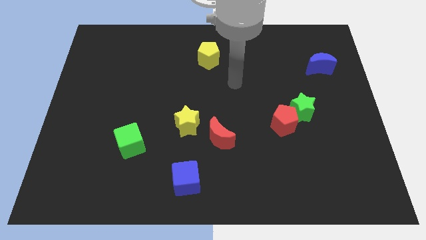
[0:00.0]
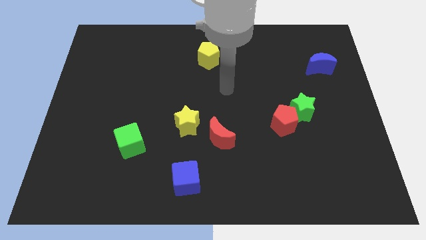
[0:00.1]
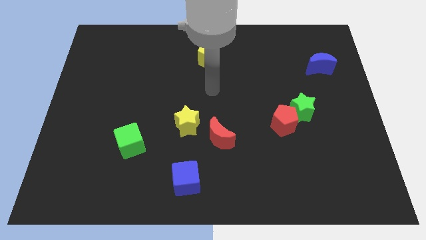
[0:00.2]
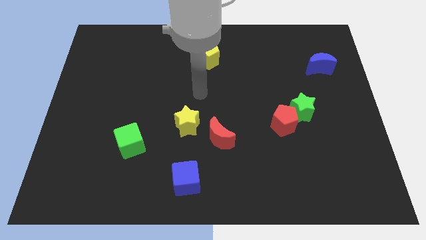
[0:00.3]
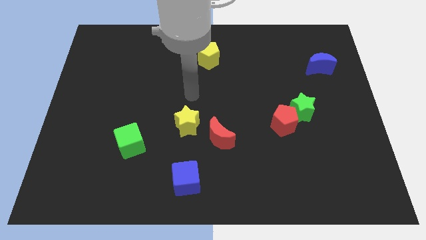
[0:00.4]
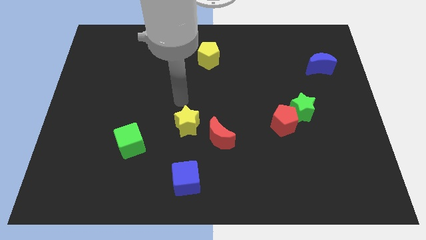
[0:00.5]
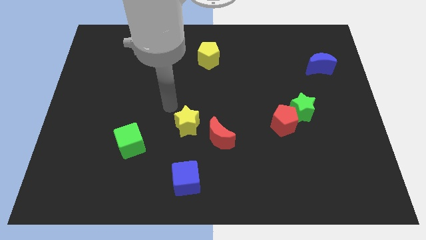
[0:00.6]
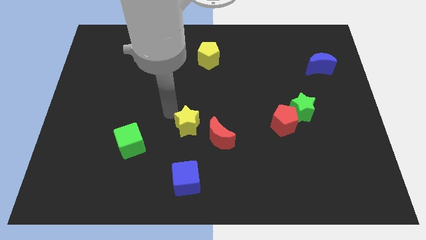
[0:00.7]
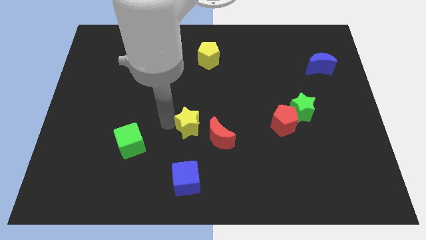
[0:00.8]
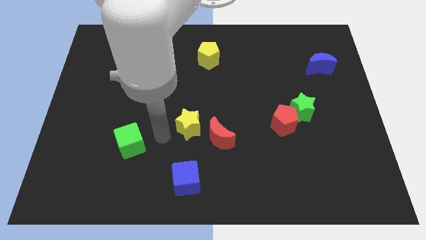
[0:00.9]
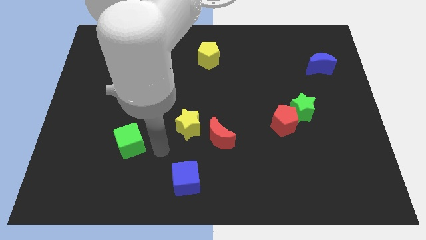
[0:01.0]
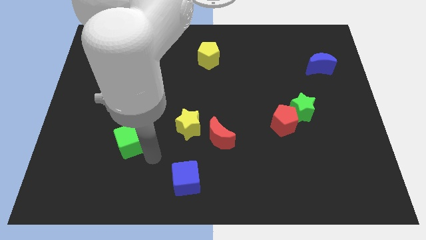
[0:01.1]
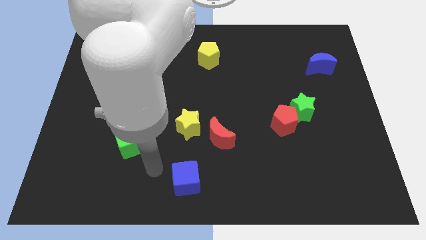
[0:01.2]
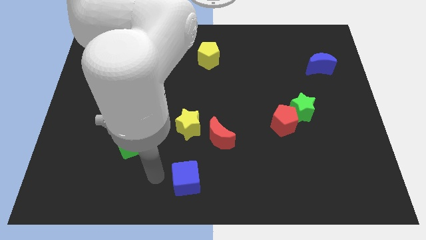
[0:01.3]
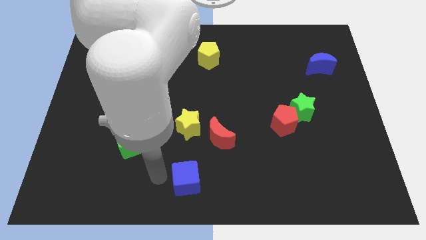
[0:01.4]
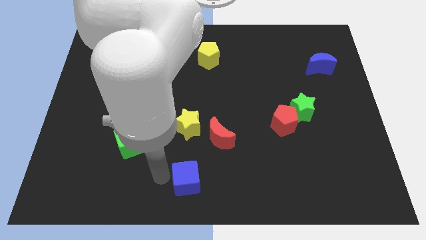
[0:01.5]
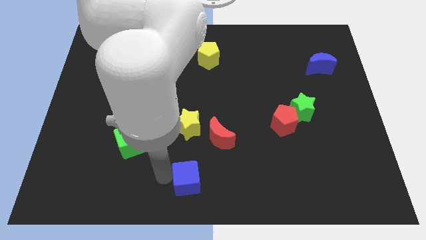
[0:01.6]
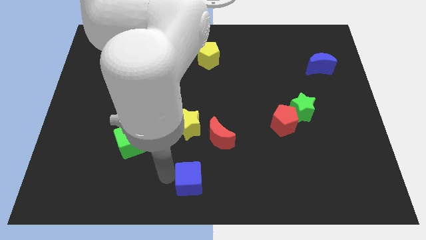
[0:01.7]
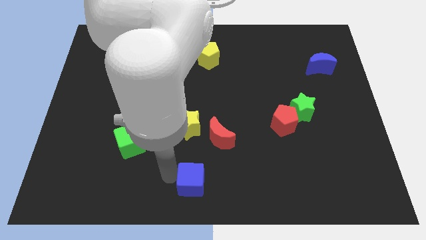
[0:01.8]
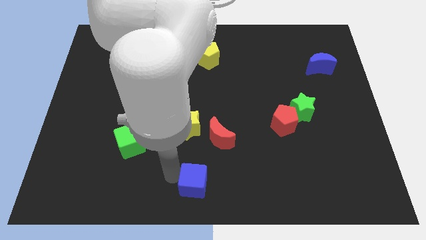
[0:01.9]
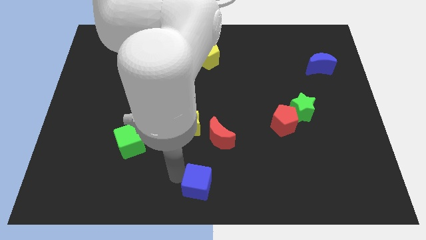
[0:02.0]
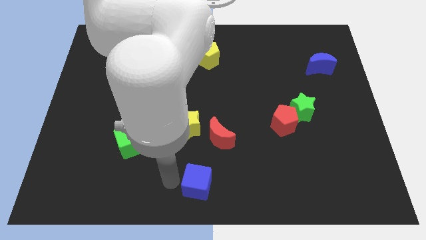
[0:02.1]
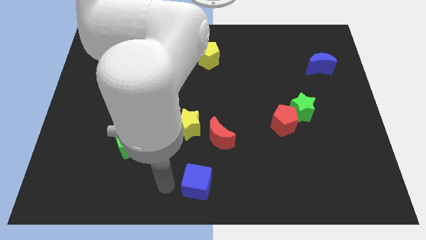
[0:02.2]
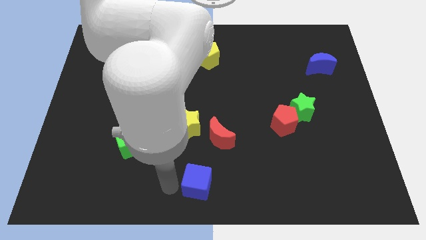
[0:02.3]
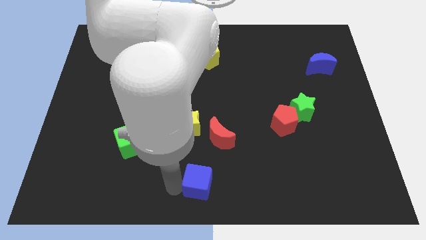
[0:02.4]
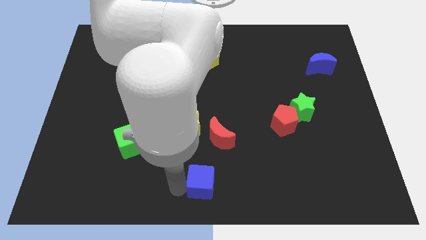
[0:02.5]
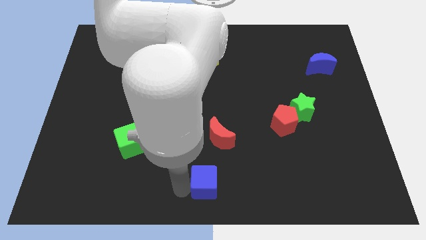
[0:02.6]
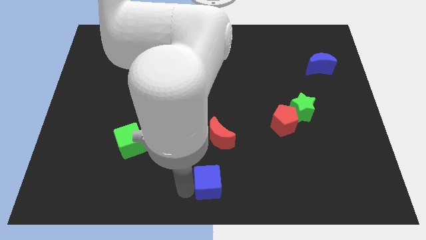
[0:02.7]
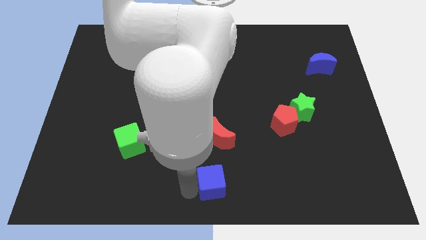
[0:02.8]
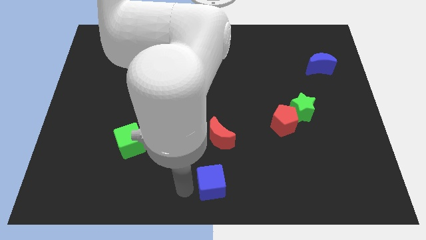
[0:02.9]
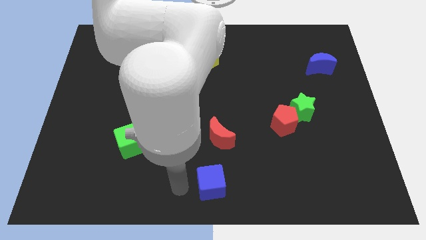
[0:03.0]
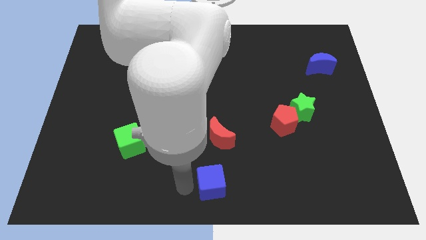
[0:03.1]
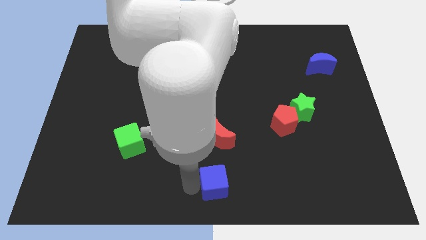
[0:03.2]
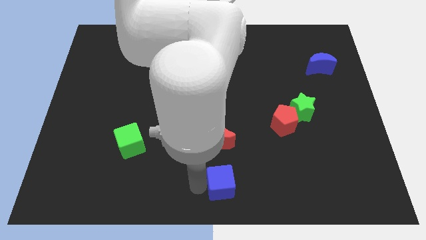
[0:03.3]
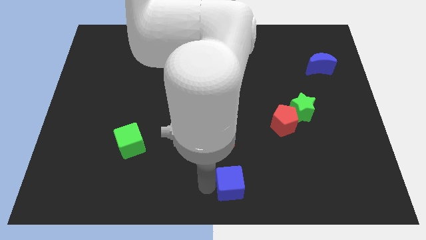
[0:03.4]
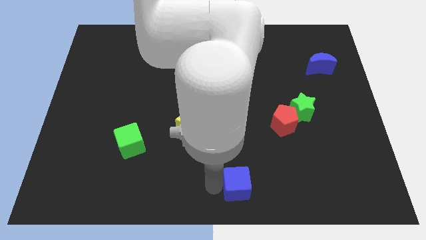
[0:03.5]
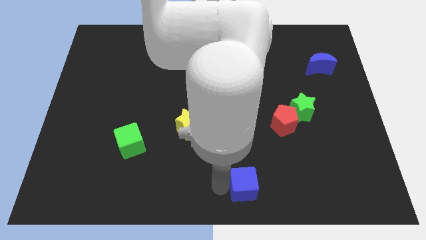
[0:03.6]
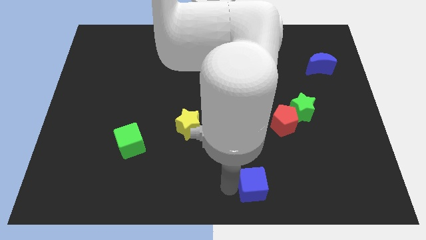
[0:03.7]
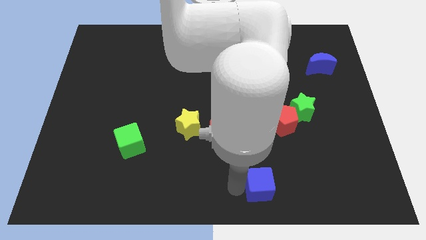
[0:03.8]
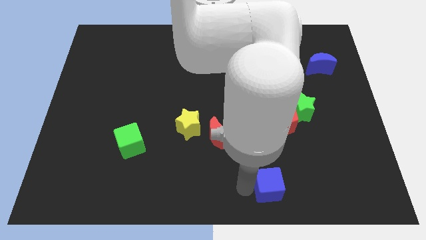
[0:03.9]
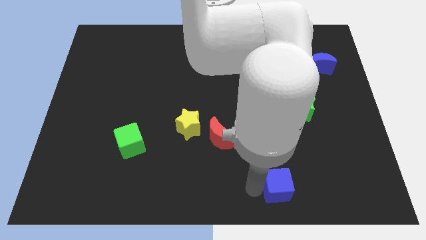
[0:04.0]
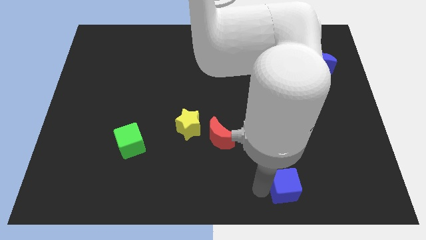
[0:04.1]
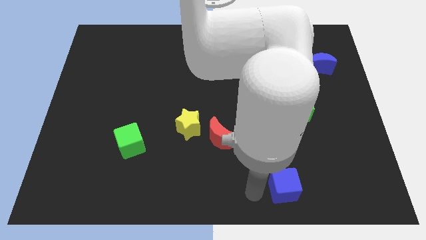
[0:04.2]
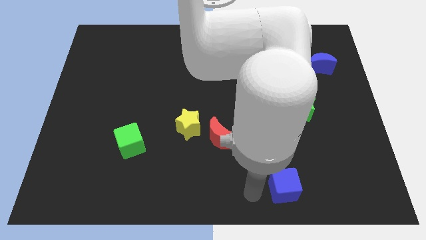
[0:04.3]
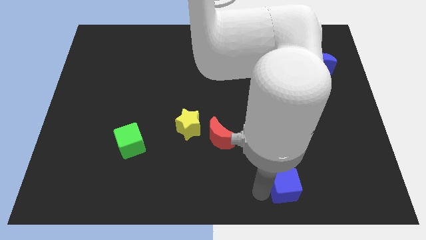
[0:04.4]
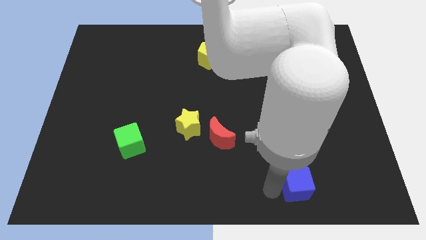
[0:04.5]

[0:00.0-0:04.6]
move the blue cube right

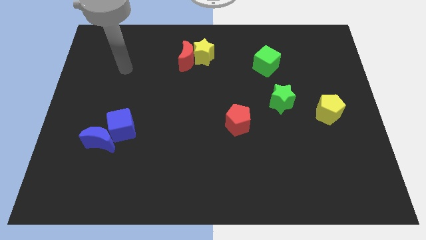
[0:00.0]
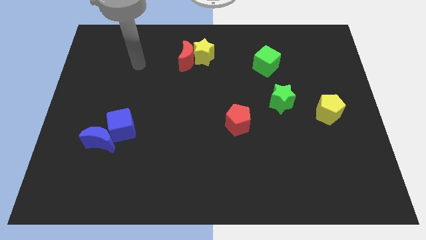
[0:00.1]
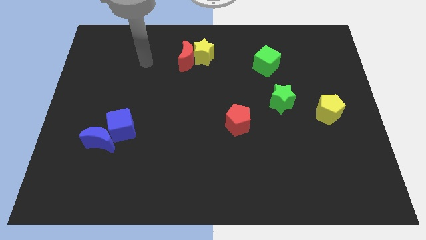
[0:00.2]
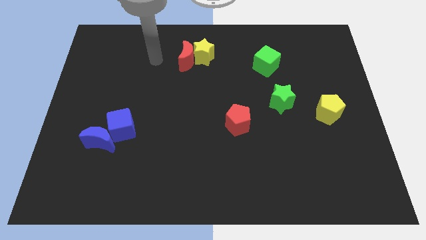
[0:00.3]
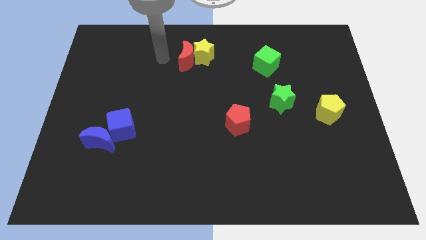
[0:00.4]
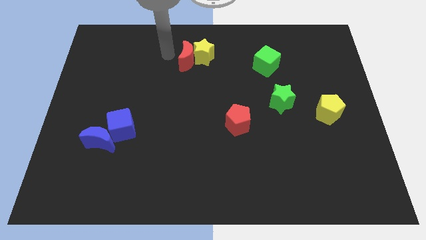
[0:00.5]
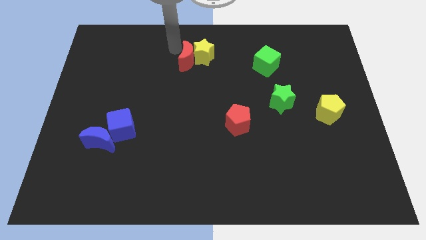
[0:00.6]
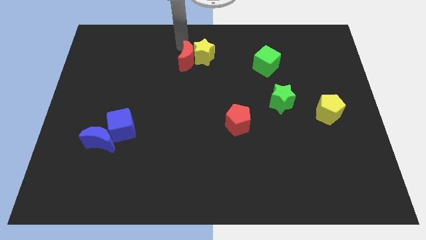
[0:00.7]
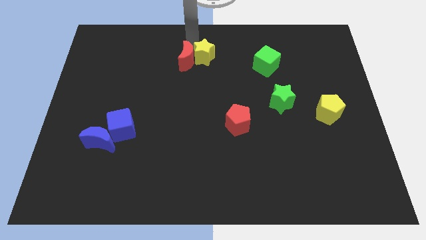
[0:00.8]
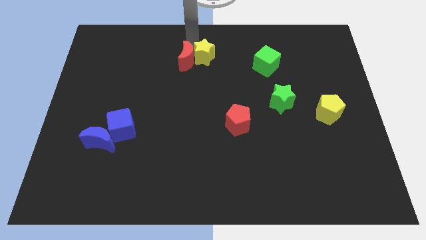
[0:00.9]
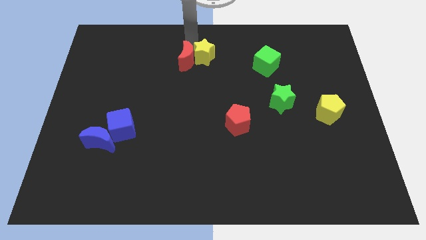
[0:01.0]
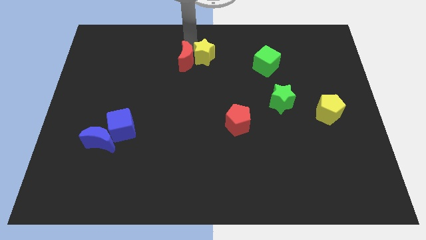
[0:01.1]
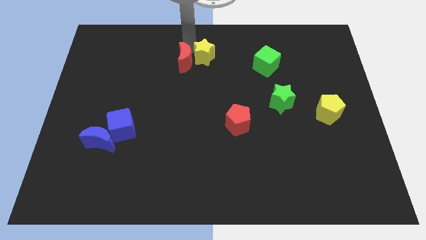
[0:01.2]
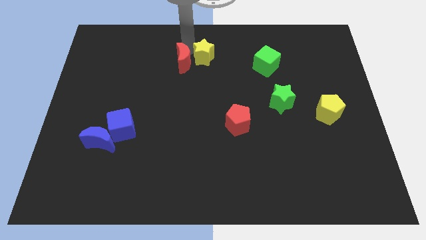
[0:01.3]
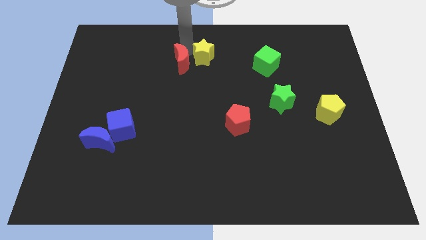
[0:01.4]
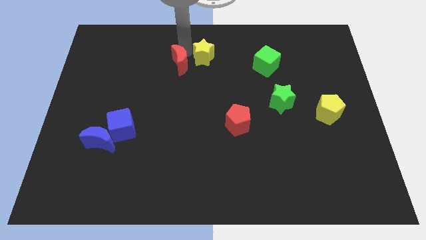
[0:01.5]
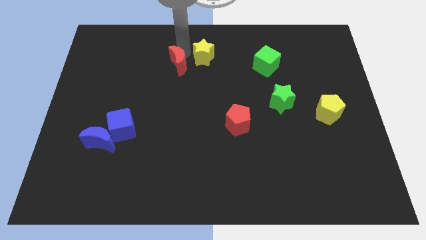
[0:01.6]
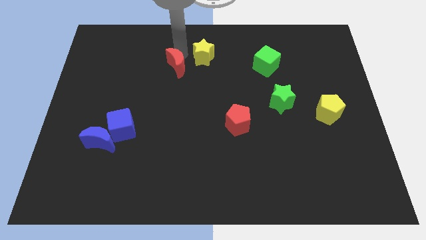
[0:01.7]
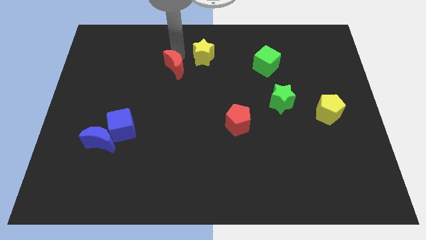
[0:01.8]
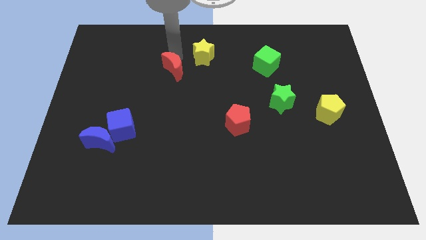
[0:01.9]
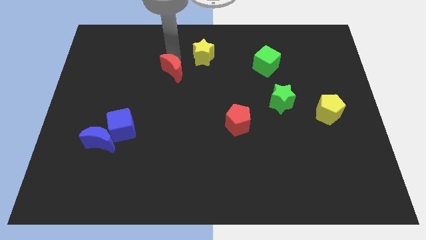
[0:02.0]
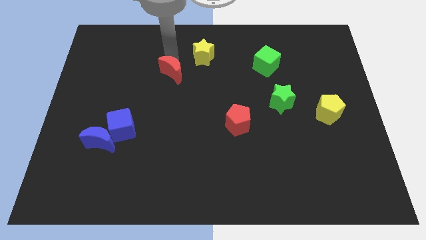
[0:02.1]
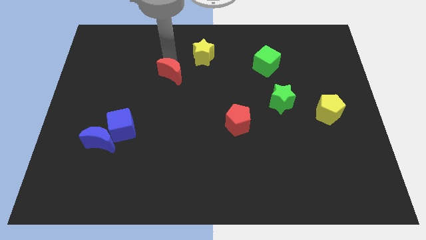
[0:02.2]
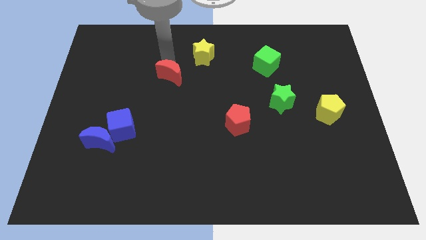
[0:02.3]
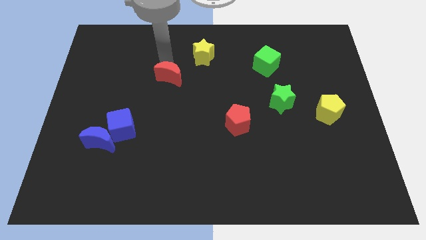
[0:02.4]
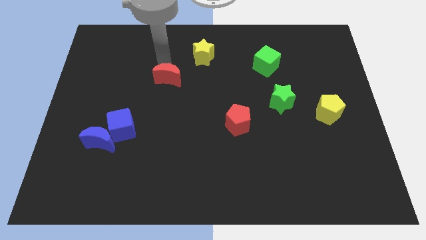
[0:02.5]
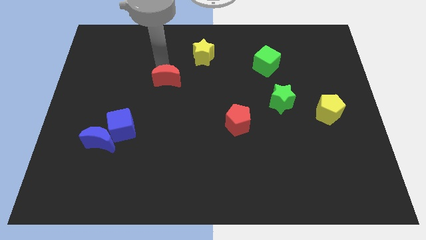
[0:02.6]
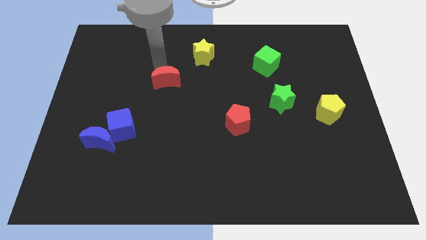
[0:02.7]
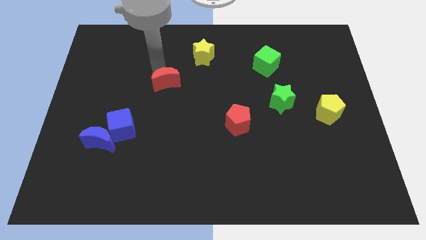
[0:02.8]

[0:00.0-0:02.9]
push the red moon downwards a little bit

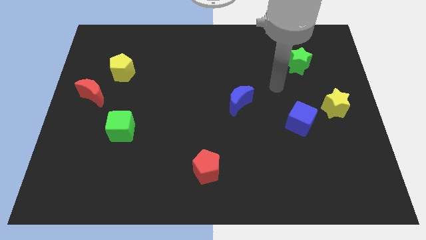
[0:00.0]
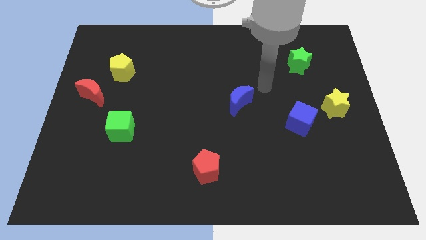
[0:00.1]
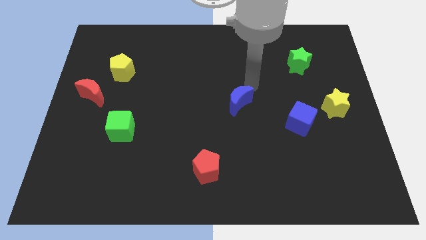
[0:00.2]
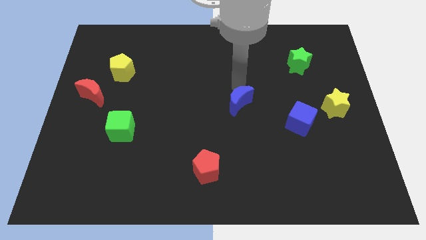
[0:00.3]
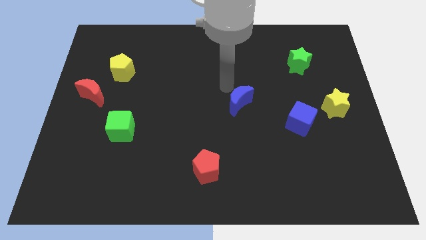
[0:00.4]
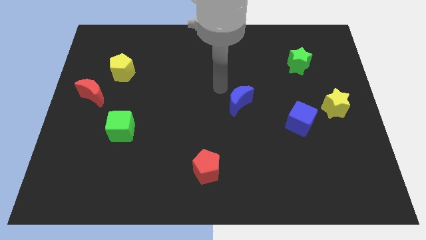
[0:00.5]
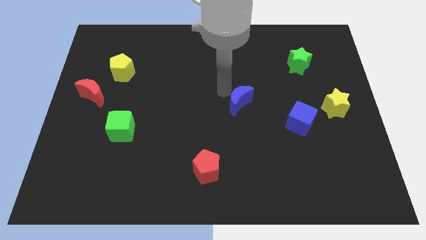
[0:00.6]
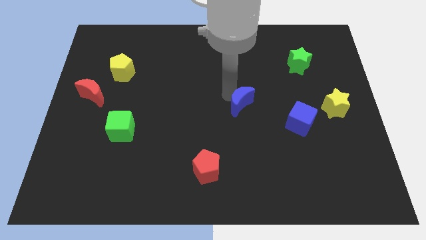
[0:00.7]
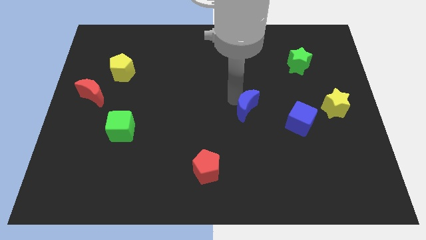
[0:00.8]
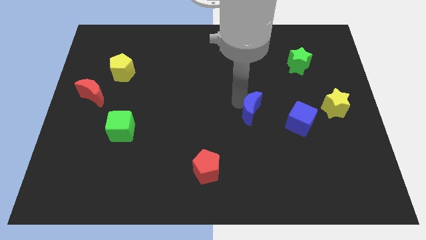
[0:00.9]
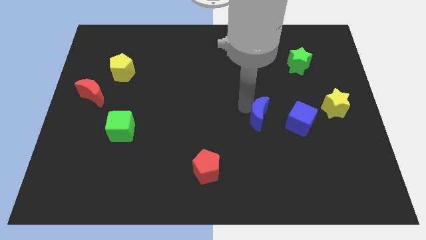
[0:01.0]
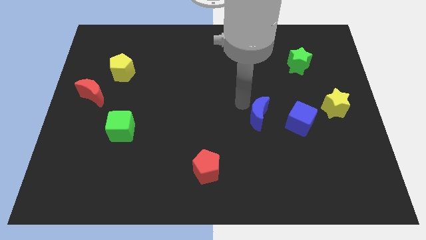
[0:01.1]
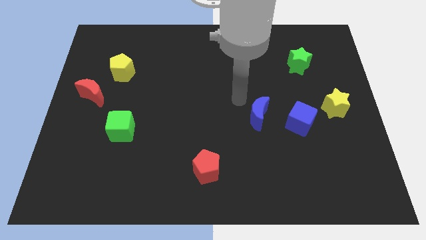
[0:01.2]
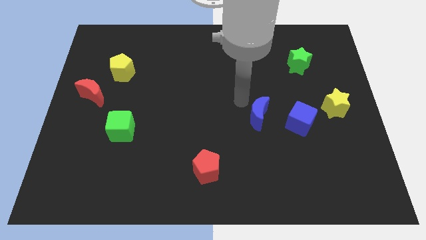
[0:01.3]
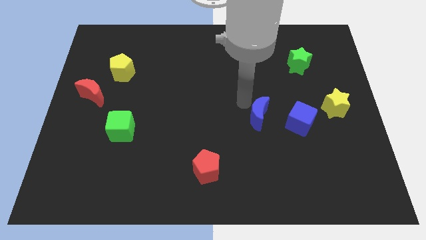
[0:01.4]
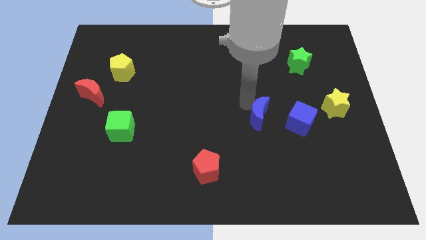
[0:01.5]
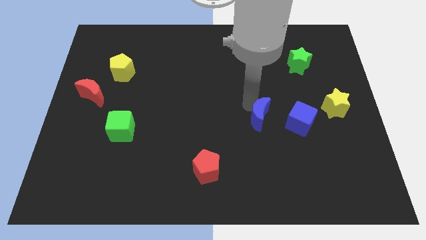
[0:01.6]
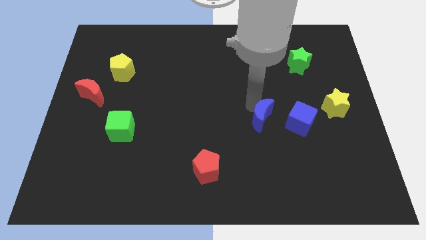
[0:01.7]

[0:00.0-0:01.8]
slightly push the blue moon diagonally downwards and right
